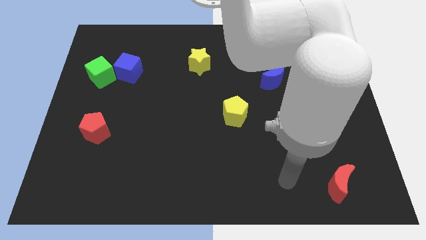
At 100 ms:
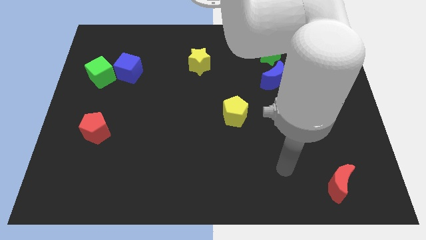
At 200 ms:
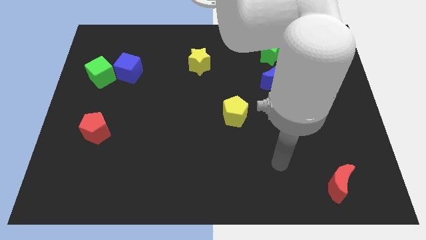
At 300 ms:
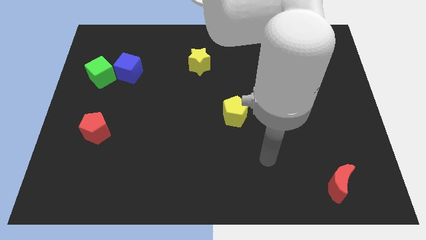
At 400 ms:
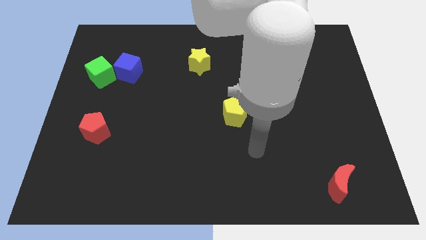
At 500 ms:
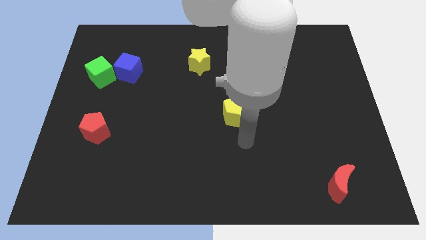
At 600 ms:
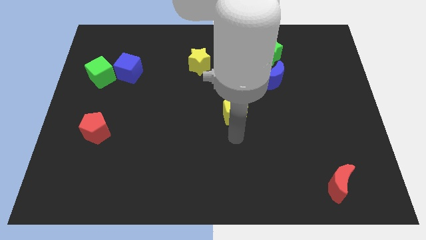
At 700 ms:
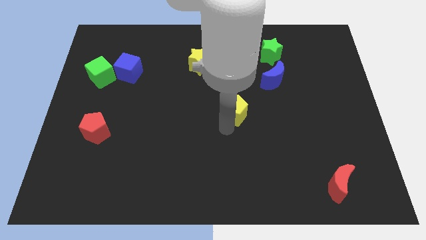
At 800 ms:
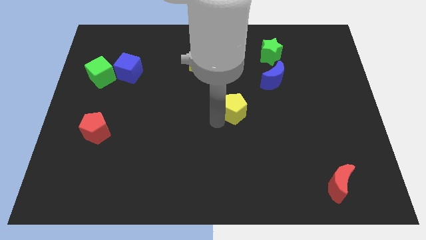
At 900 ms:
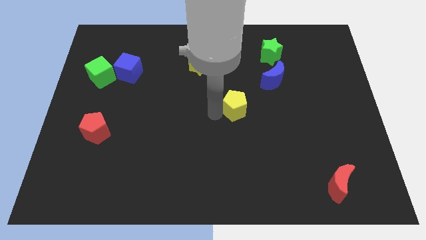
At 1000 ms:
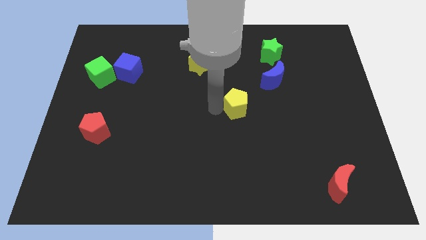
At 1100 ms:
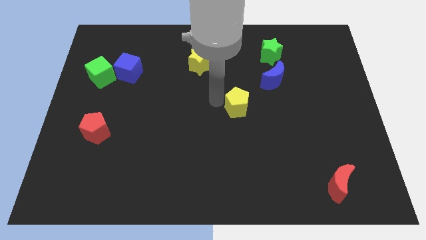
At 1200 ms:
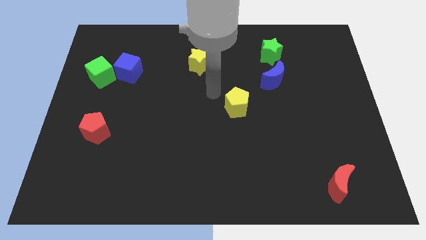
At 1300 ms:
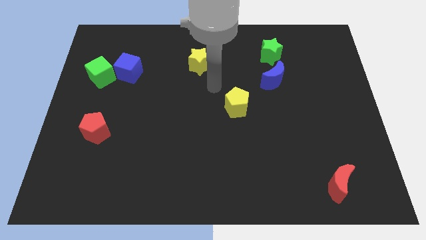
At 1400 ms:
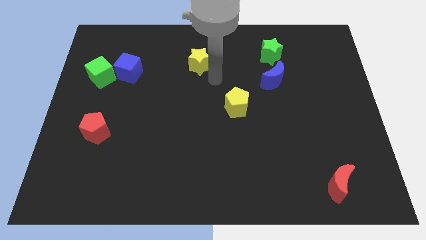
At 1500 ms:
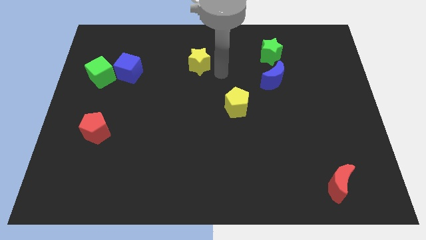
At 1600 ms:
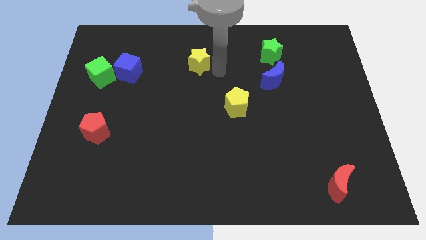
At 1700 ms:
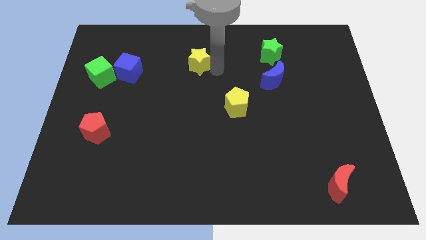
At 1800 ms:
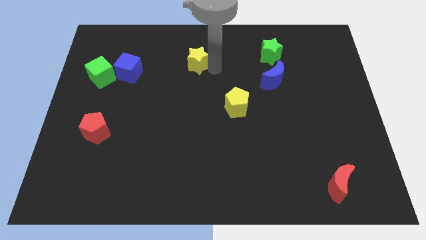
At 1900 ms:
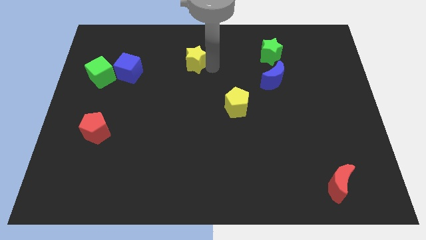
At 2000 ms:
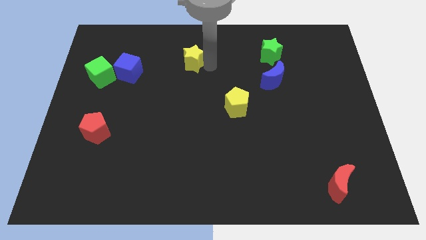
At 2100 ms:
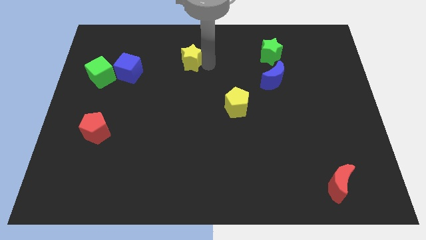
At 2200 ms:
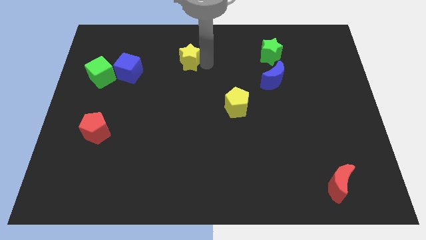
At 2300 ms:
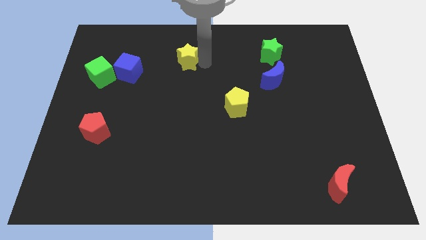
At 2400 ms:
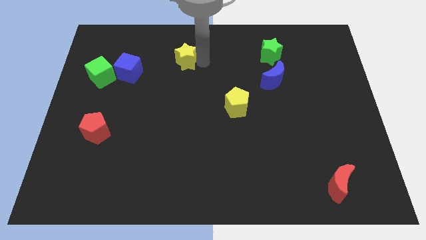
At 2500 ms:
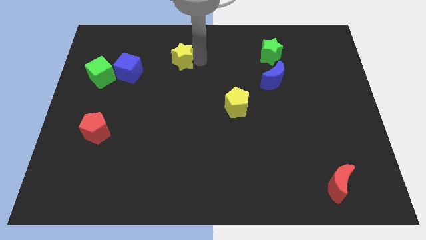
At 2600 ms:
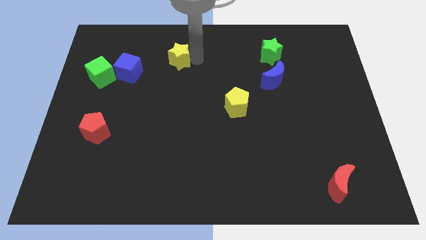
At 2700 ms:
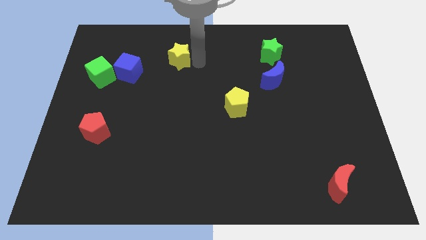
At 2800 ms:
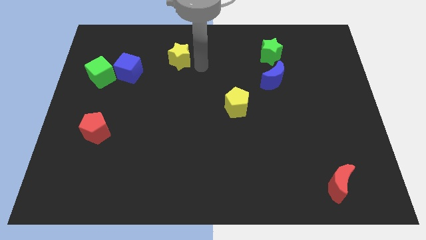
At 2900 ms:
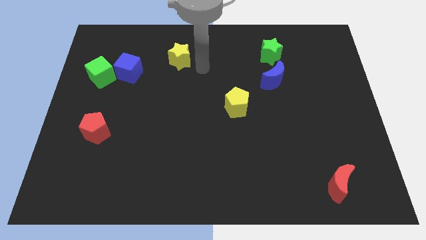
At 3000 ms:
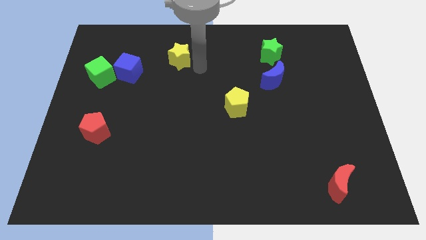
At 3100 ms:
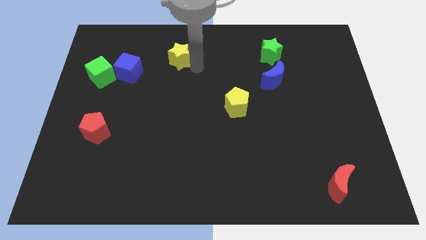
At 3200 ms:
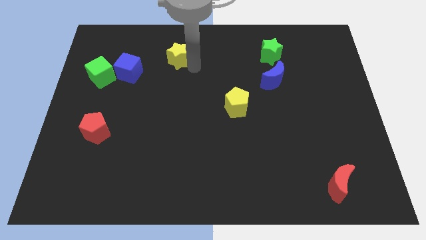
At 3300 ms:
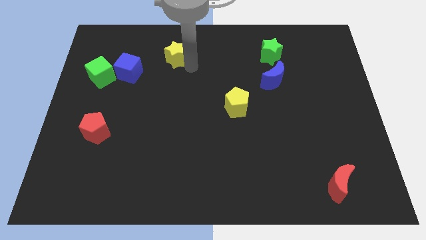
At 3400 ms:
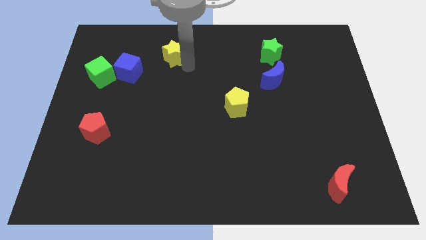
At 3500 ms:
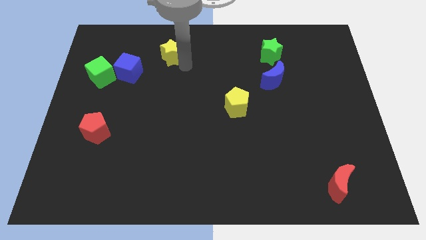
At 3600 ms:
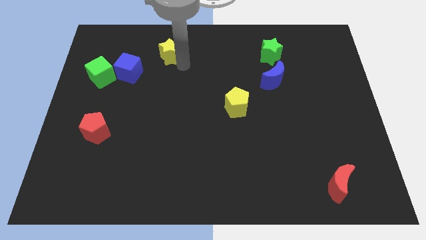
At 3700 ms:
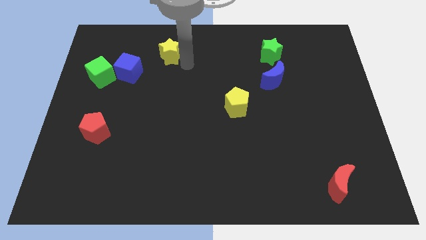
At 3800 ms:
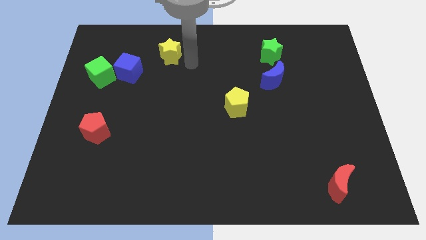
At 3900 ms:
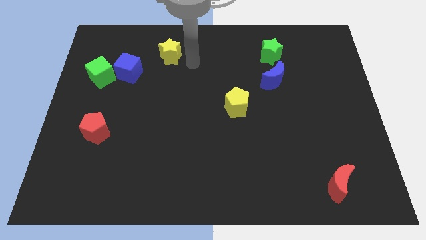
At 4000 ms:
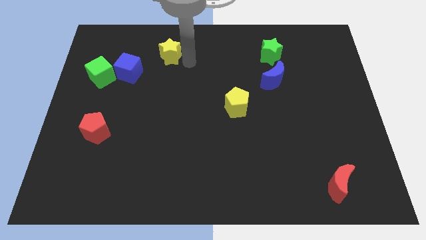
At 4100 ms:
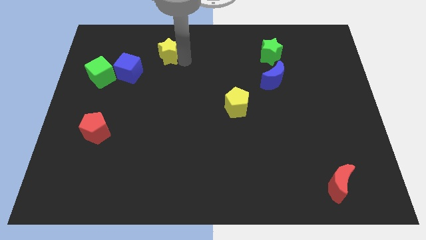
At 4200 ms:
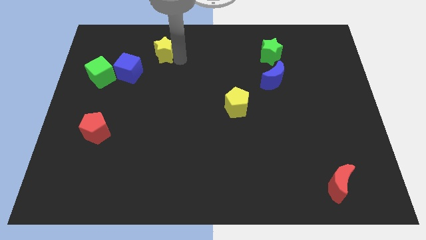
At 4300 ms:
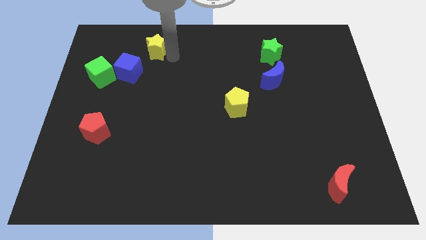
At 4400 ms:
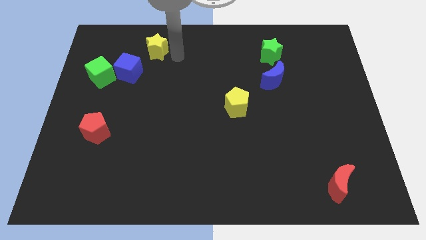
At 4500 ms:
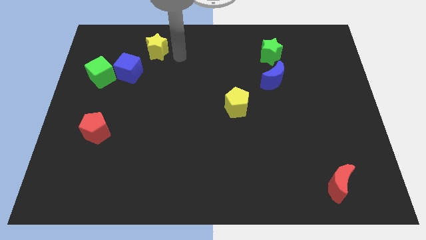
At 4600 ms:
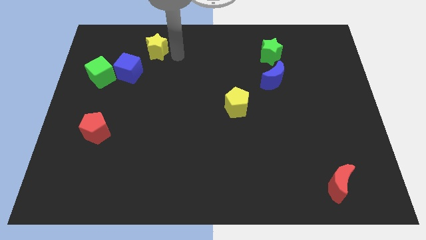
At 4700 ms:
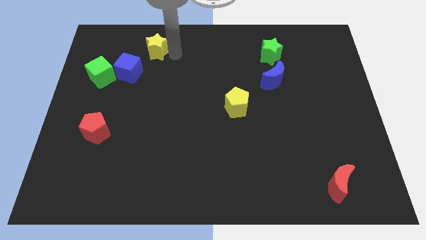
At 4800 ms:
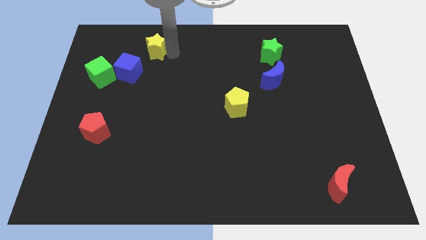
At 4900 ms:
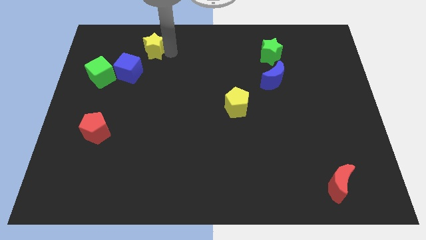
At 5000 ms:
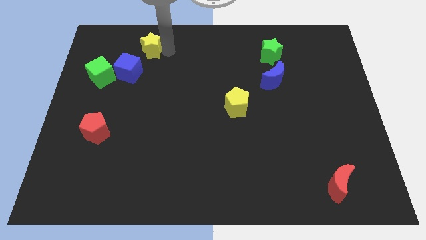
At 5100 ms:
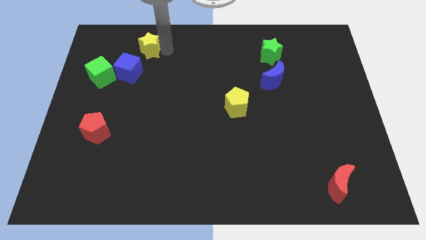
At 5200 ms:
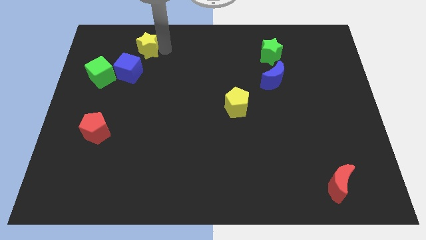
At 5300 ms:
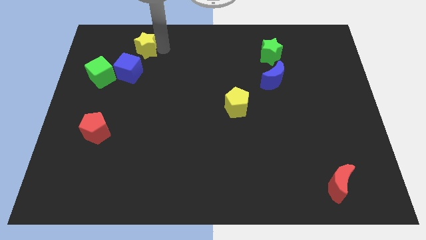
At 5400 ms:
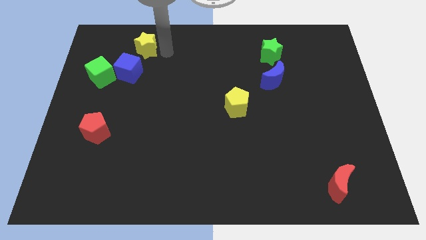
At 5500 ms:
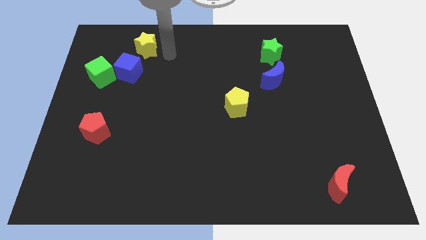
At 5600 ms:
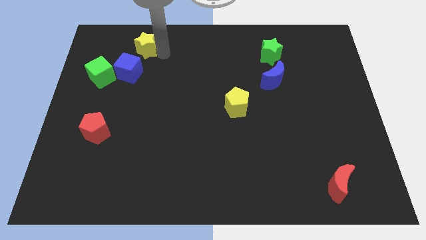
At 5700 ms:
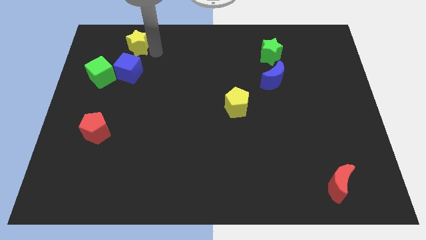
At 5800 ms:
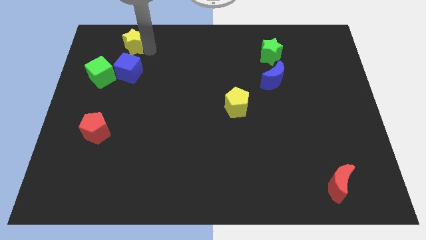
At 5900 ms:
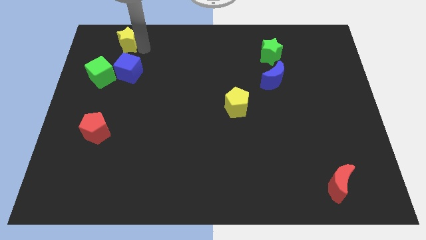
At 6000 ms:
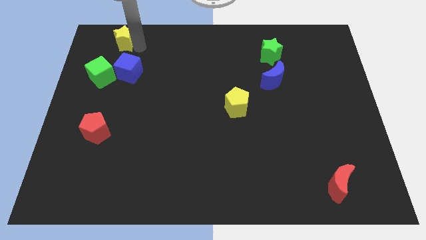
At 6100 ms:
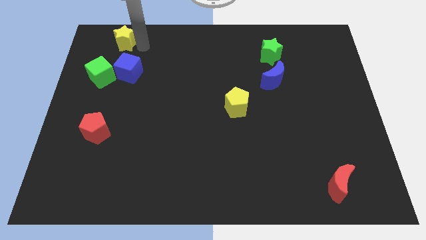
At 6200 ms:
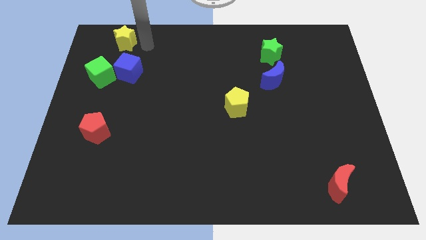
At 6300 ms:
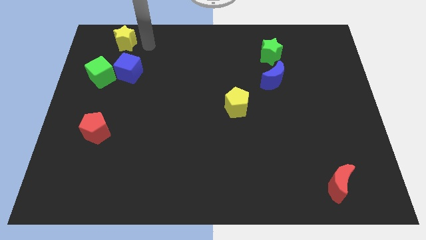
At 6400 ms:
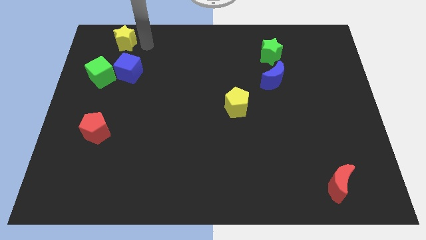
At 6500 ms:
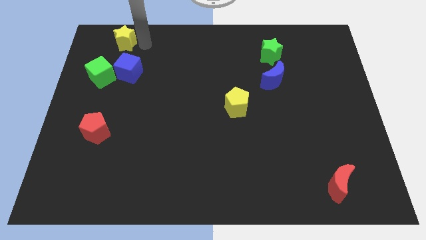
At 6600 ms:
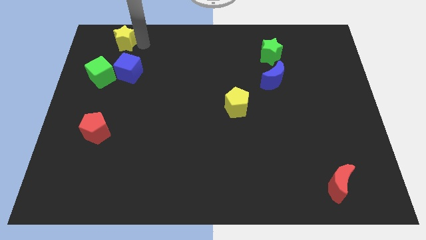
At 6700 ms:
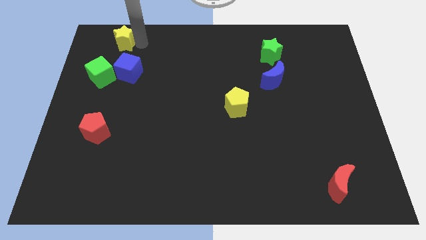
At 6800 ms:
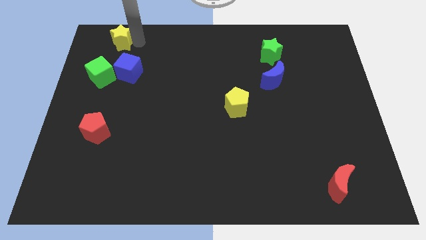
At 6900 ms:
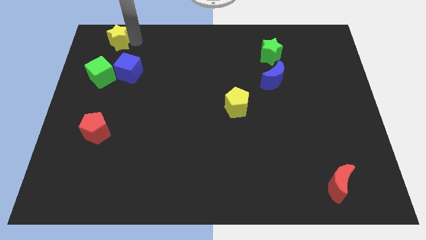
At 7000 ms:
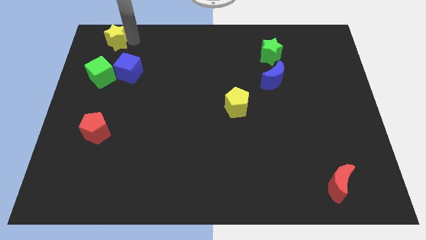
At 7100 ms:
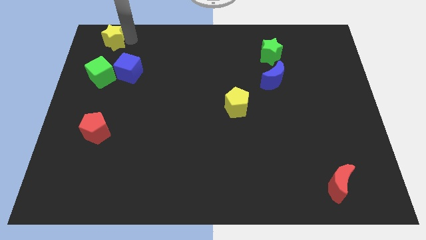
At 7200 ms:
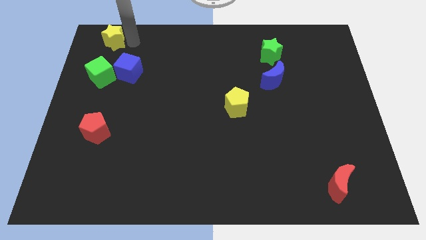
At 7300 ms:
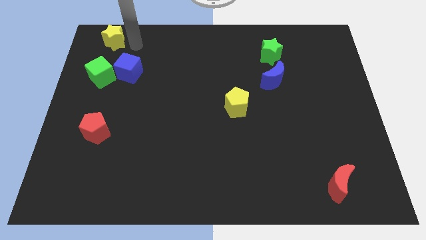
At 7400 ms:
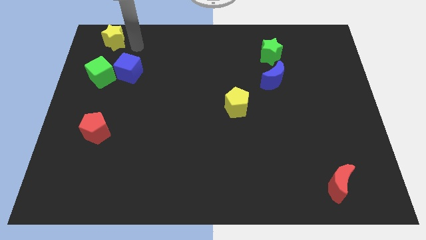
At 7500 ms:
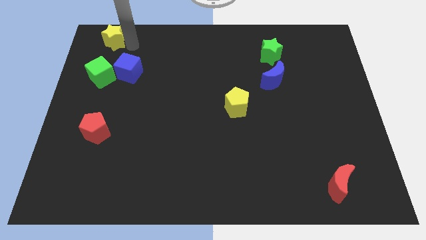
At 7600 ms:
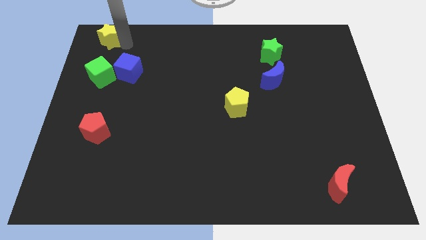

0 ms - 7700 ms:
move the yellow star to the top left
